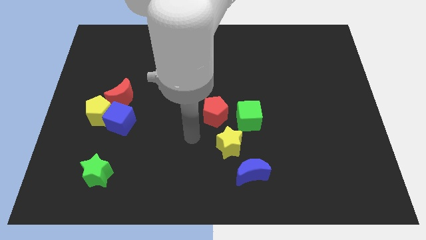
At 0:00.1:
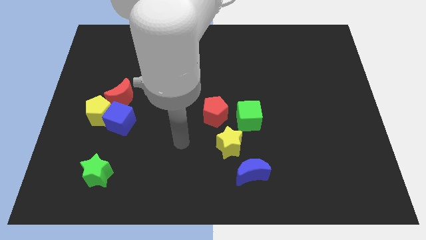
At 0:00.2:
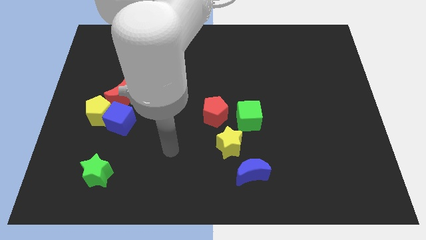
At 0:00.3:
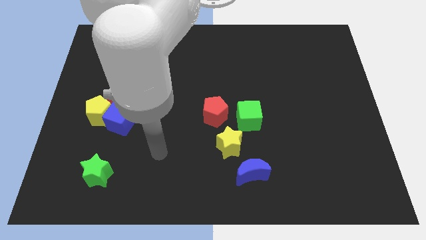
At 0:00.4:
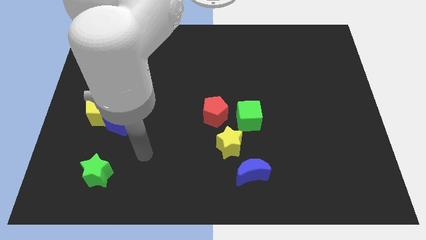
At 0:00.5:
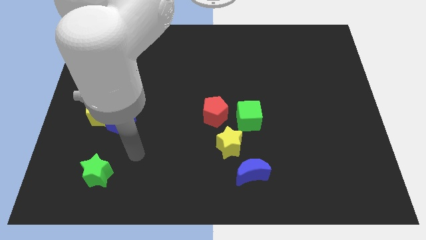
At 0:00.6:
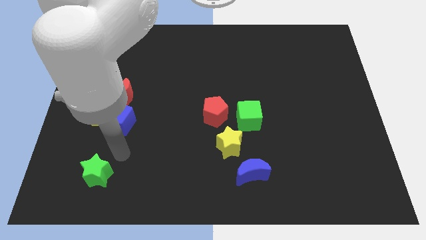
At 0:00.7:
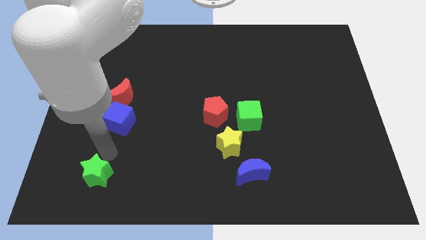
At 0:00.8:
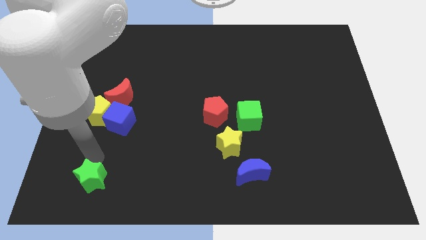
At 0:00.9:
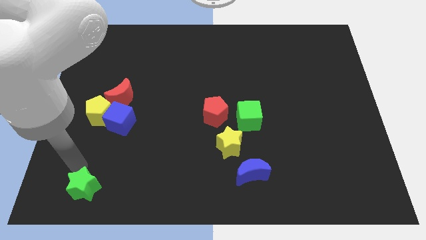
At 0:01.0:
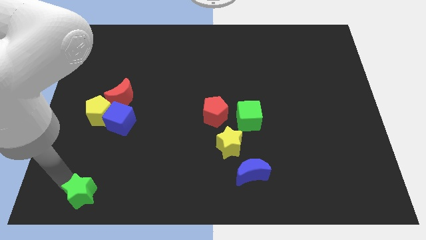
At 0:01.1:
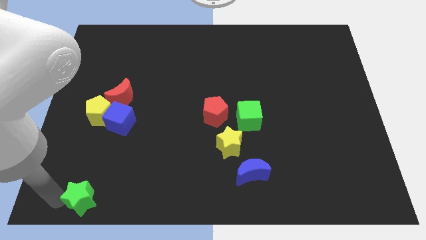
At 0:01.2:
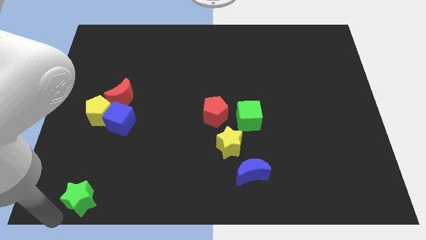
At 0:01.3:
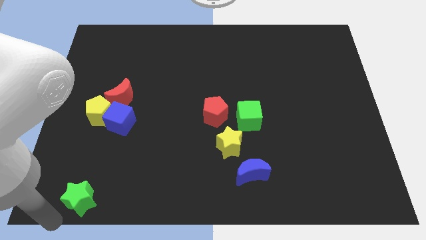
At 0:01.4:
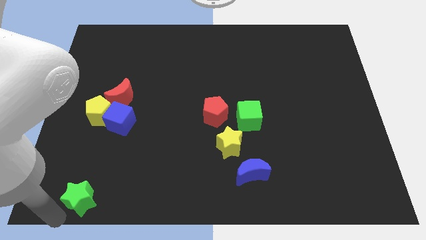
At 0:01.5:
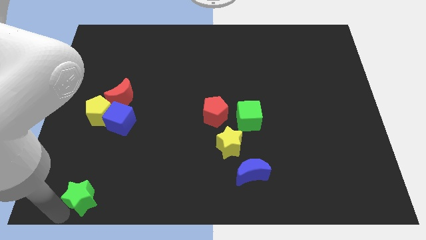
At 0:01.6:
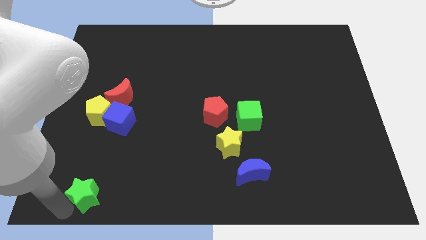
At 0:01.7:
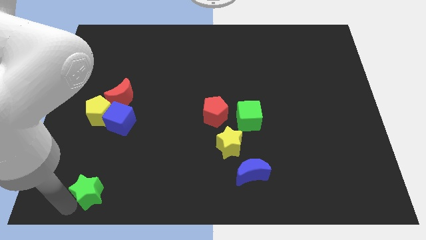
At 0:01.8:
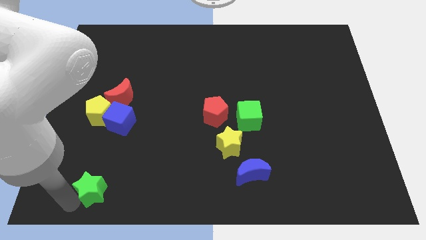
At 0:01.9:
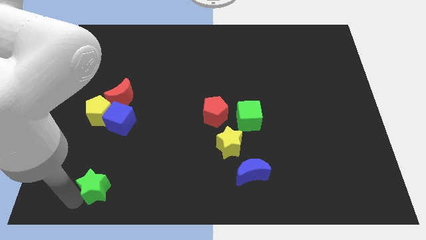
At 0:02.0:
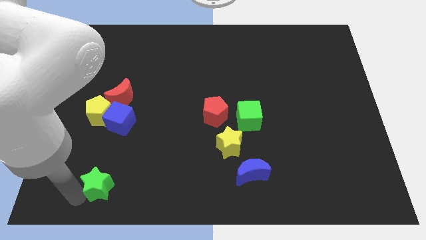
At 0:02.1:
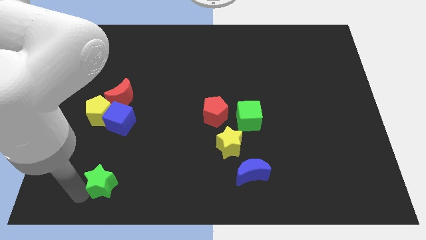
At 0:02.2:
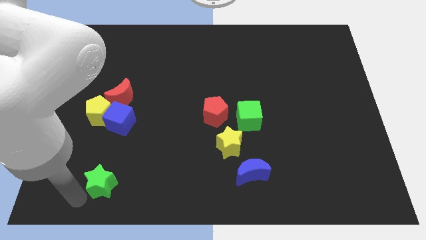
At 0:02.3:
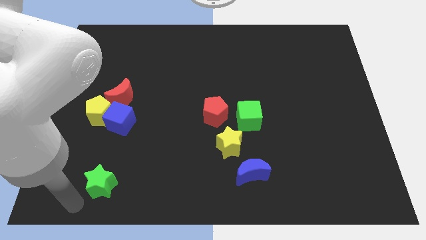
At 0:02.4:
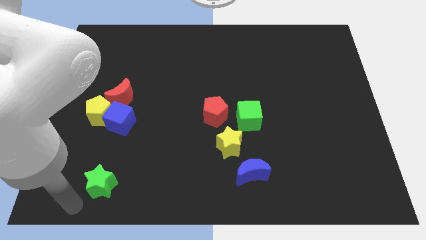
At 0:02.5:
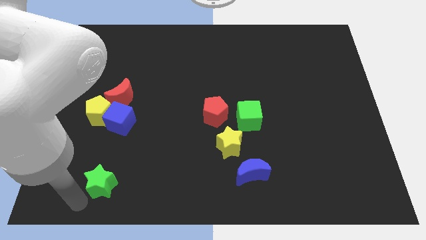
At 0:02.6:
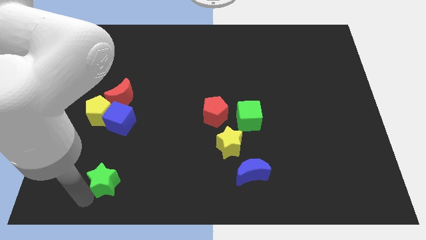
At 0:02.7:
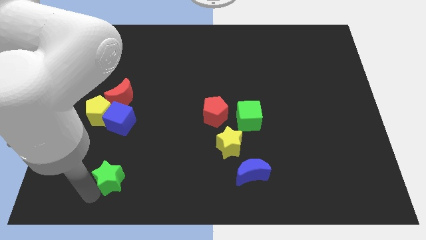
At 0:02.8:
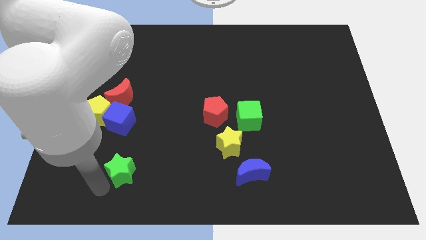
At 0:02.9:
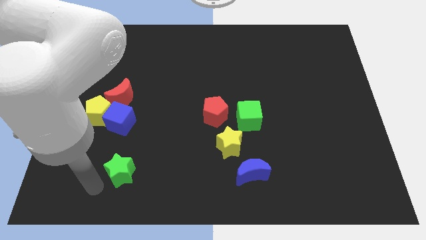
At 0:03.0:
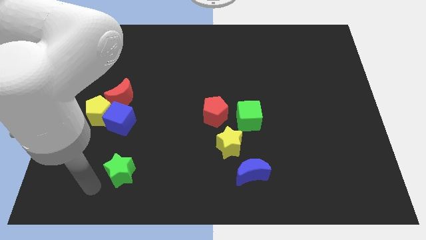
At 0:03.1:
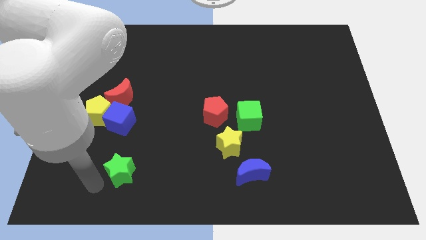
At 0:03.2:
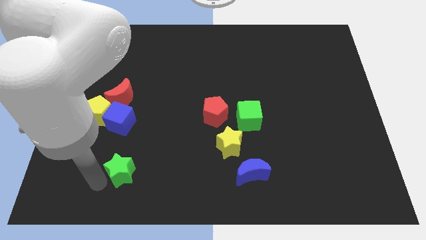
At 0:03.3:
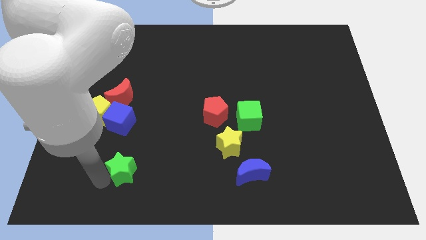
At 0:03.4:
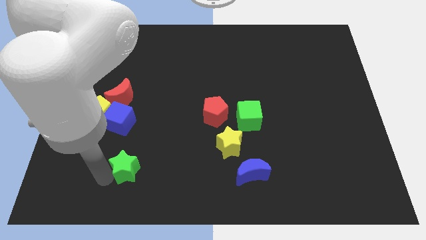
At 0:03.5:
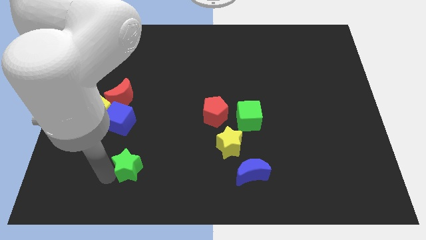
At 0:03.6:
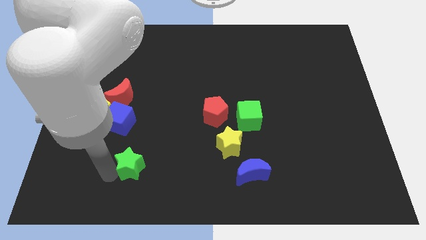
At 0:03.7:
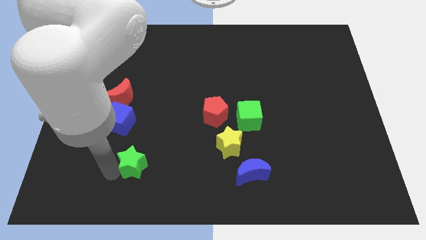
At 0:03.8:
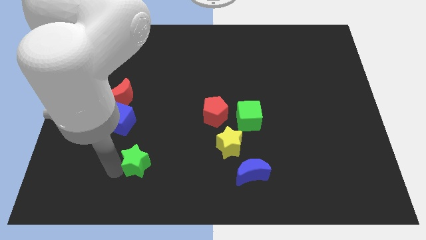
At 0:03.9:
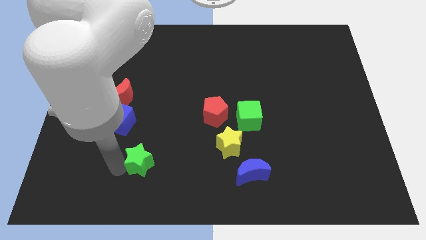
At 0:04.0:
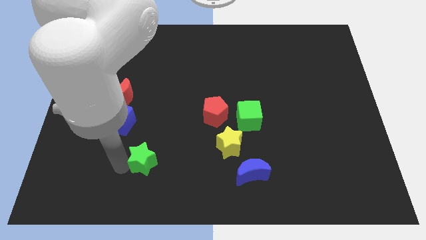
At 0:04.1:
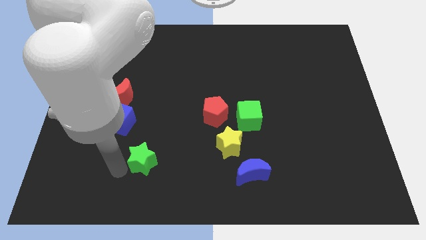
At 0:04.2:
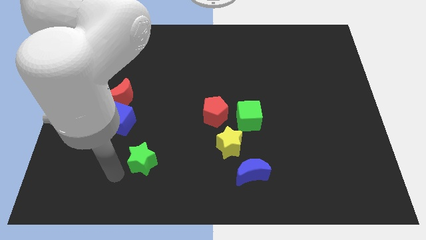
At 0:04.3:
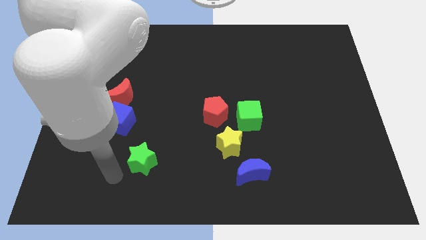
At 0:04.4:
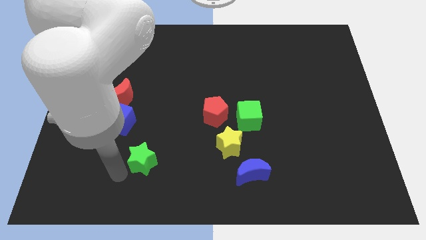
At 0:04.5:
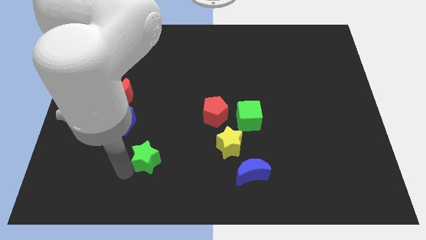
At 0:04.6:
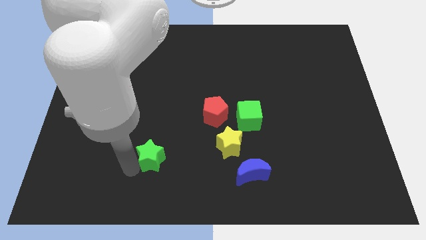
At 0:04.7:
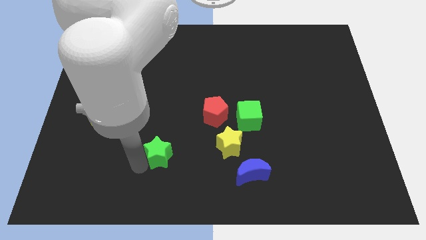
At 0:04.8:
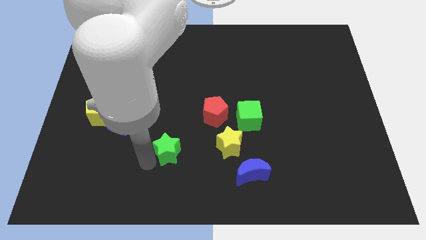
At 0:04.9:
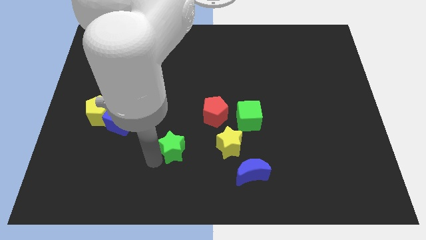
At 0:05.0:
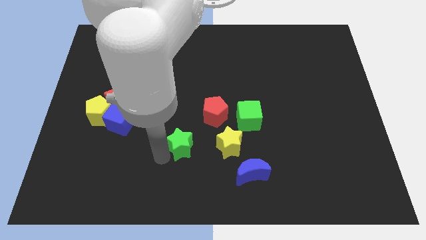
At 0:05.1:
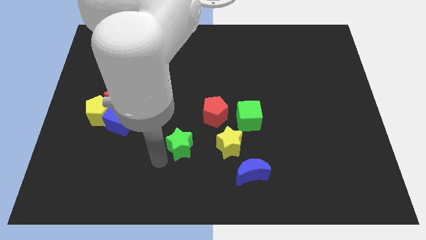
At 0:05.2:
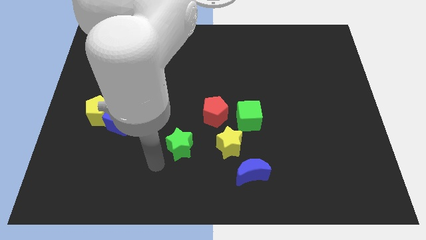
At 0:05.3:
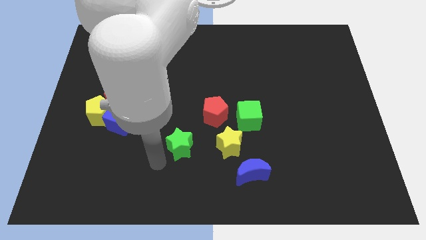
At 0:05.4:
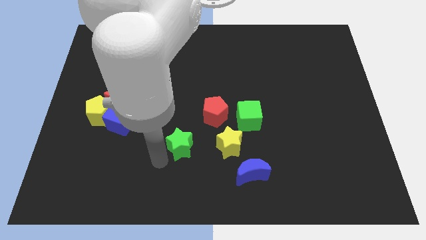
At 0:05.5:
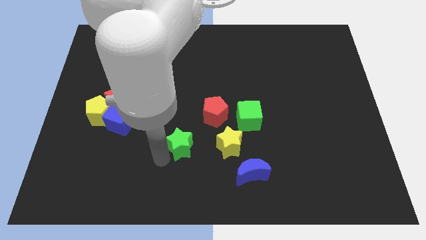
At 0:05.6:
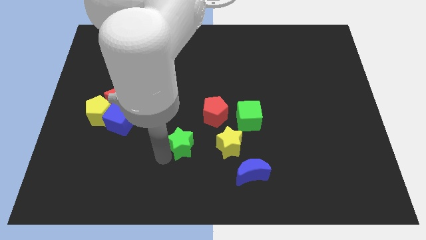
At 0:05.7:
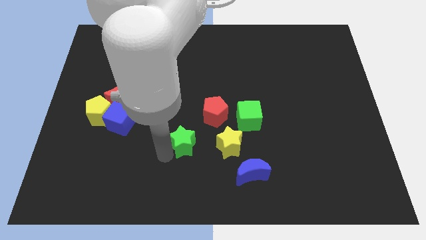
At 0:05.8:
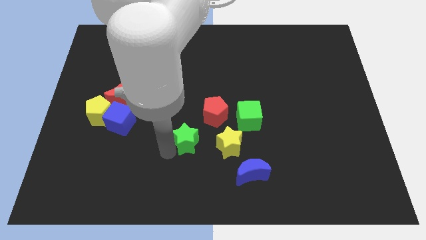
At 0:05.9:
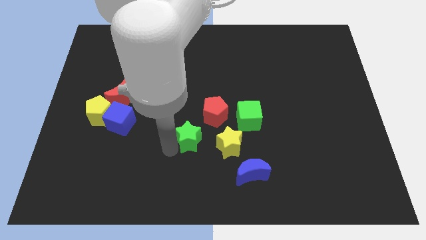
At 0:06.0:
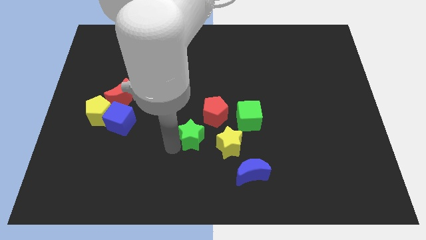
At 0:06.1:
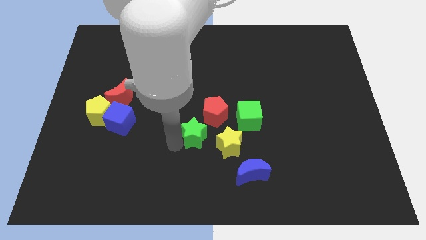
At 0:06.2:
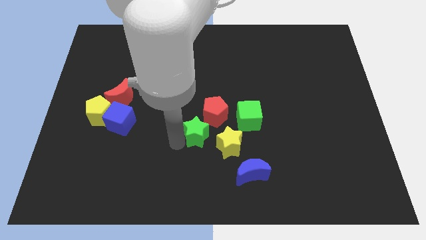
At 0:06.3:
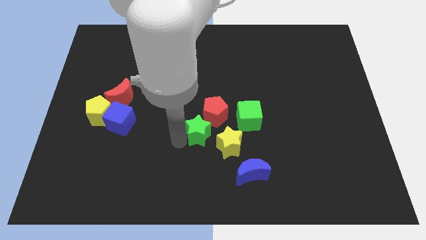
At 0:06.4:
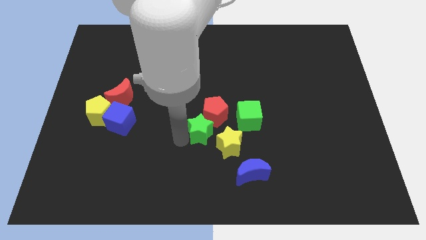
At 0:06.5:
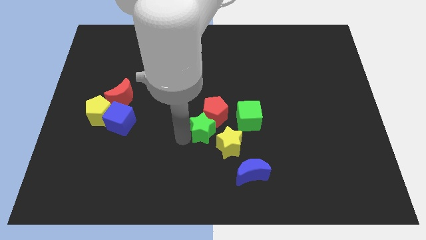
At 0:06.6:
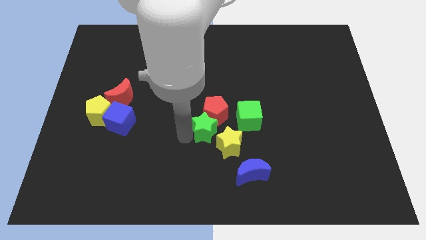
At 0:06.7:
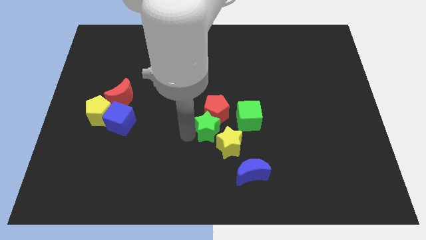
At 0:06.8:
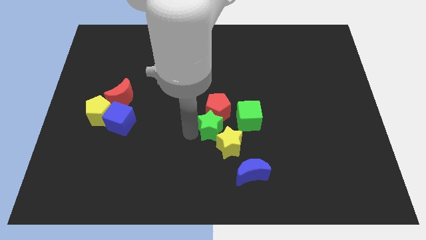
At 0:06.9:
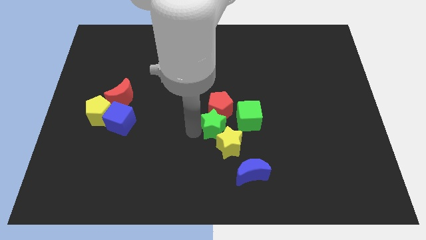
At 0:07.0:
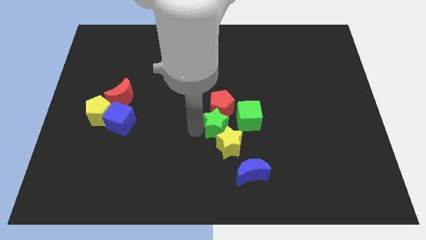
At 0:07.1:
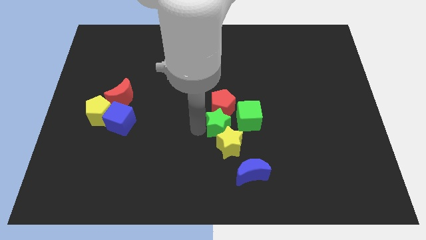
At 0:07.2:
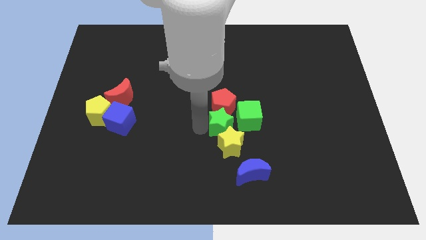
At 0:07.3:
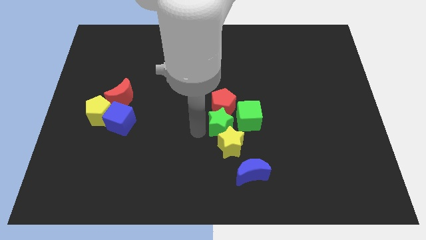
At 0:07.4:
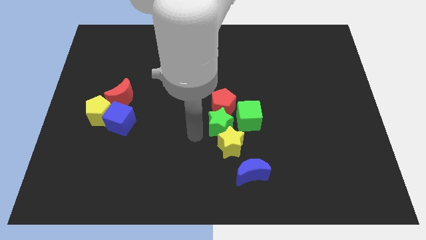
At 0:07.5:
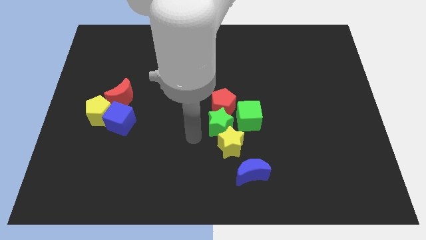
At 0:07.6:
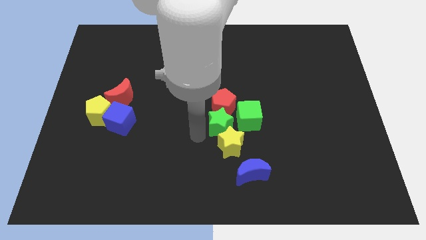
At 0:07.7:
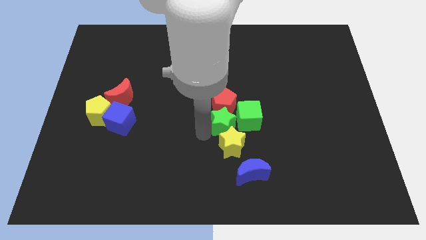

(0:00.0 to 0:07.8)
slide the green star next to the green cube

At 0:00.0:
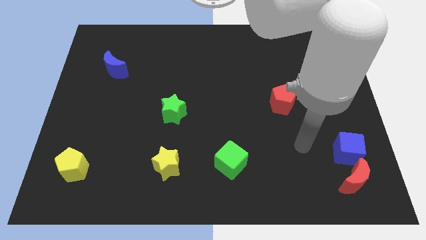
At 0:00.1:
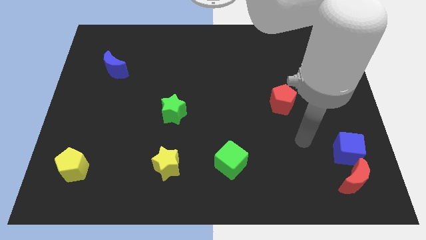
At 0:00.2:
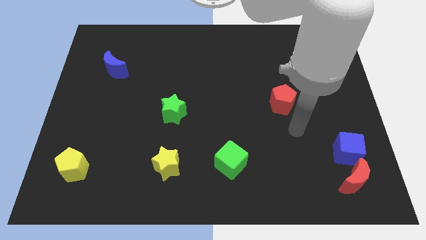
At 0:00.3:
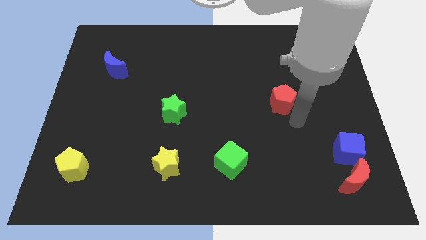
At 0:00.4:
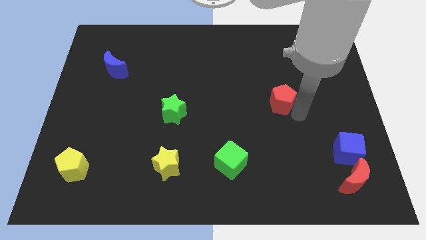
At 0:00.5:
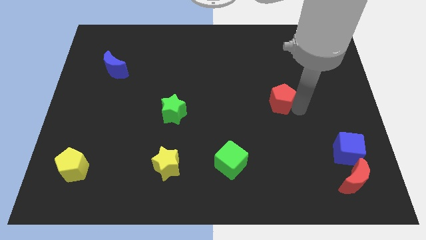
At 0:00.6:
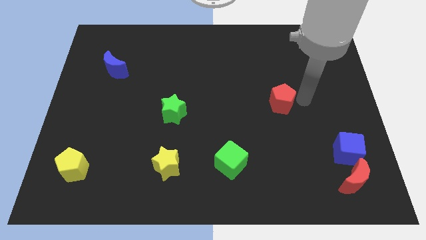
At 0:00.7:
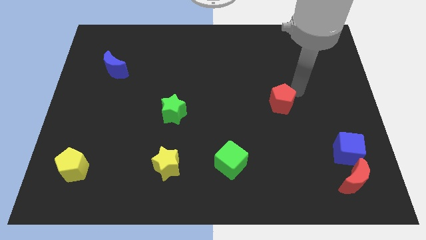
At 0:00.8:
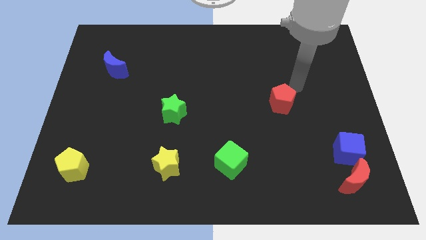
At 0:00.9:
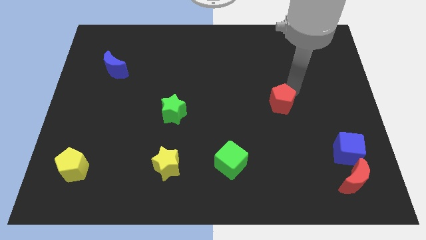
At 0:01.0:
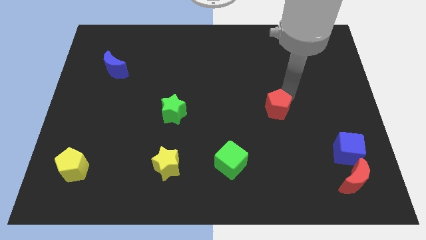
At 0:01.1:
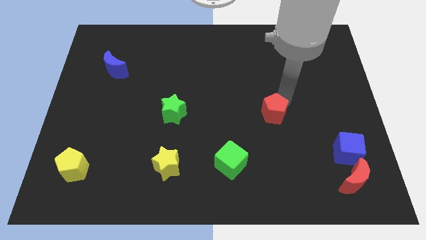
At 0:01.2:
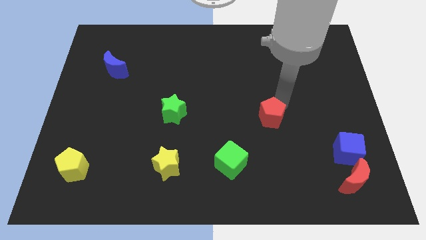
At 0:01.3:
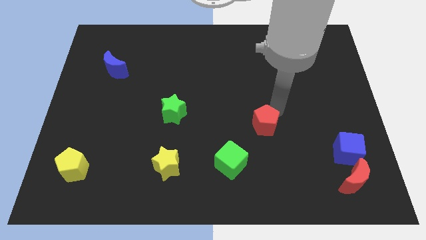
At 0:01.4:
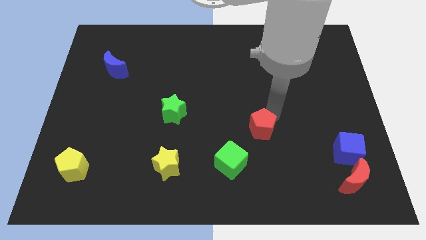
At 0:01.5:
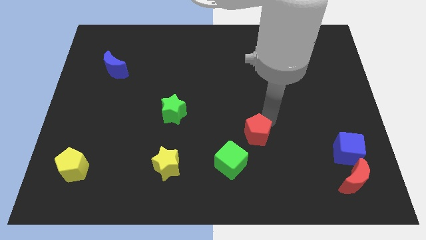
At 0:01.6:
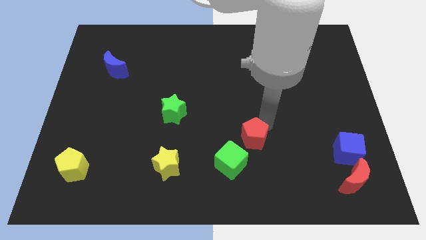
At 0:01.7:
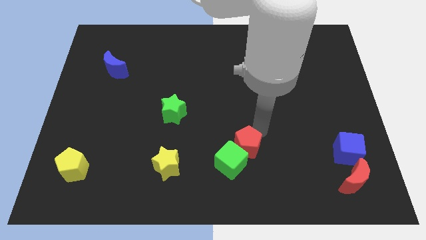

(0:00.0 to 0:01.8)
move the red pentagon next to the green cube
